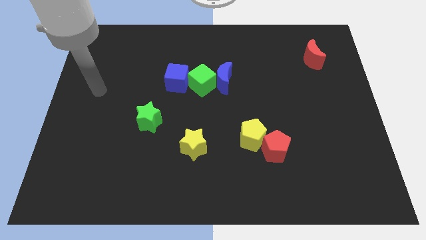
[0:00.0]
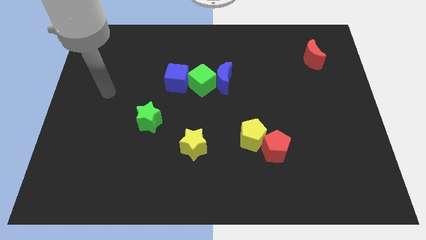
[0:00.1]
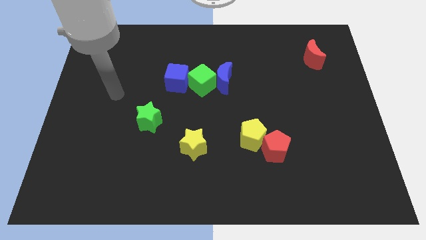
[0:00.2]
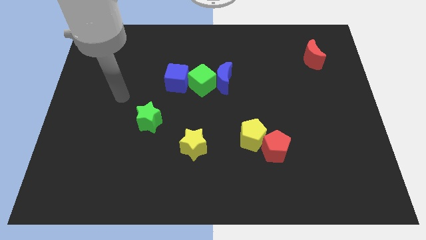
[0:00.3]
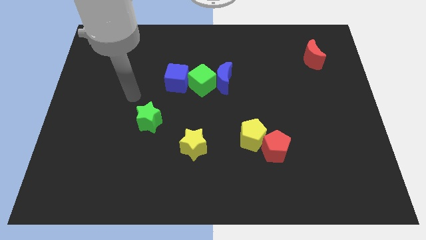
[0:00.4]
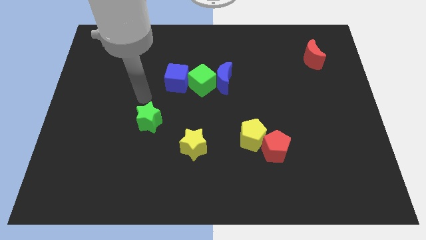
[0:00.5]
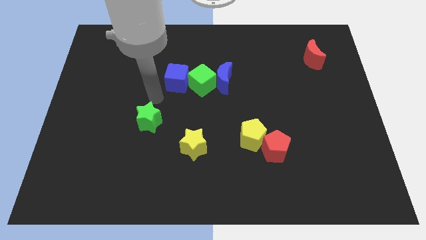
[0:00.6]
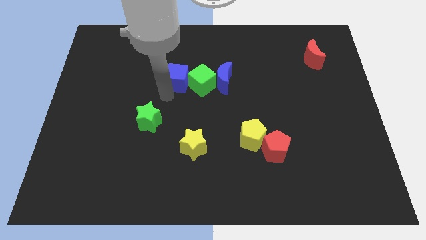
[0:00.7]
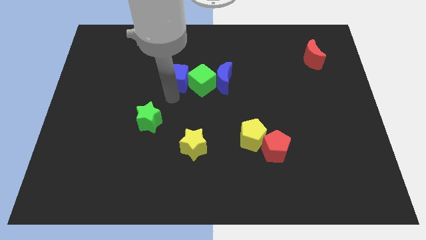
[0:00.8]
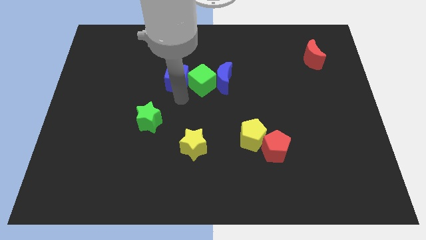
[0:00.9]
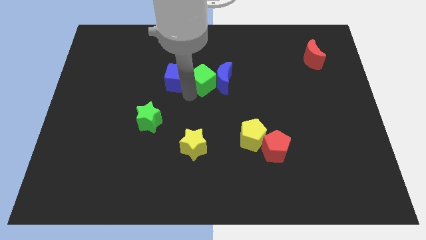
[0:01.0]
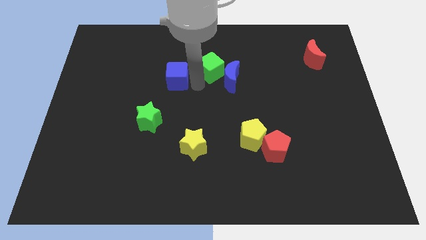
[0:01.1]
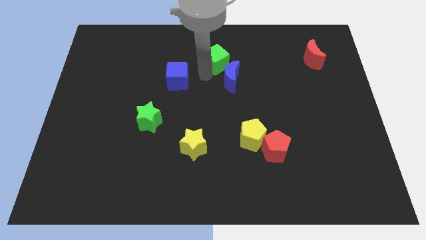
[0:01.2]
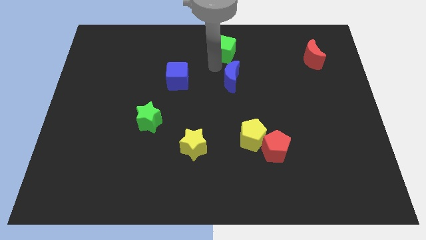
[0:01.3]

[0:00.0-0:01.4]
move the blue moon away from the green cube

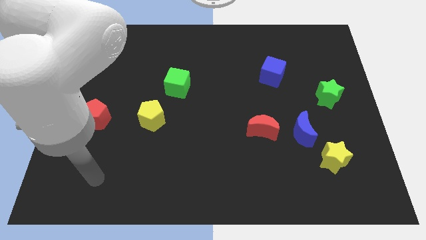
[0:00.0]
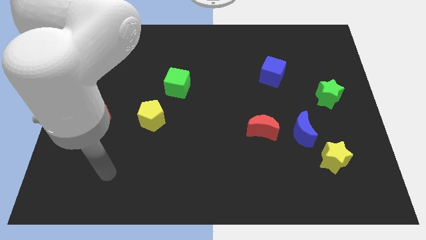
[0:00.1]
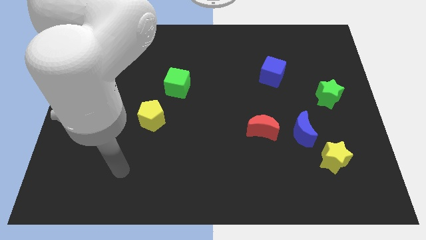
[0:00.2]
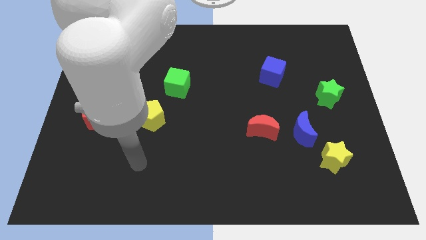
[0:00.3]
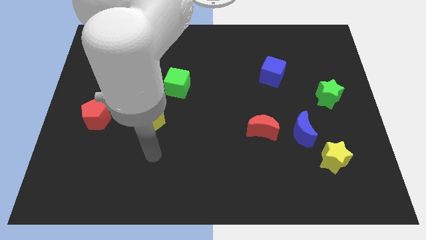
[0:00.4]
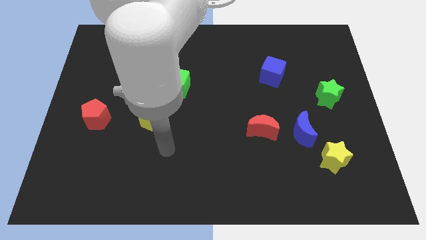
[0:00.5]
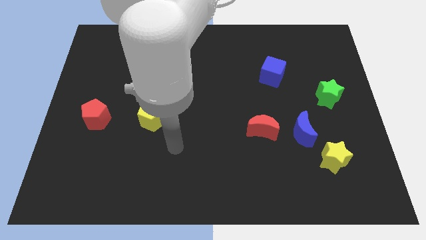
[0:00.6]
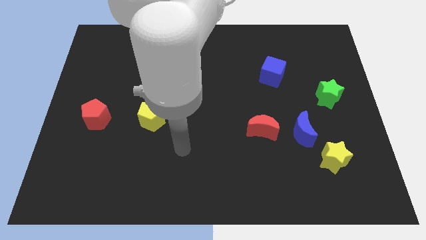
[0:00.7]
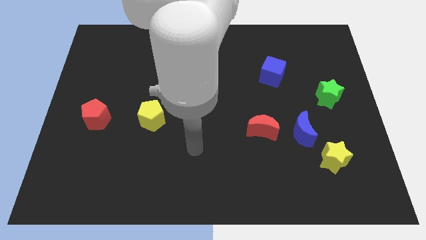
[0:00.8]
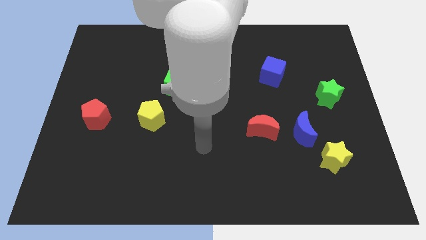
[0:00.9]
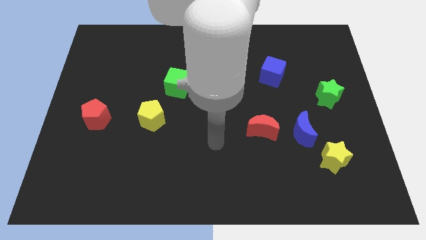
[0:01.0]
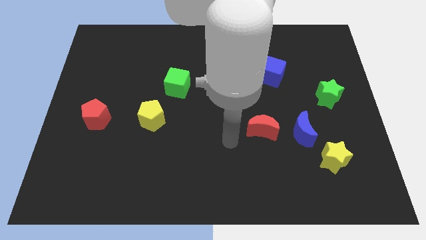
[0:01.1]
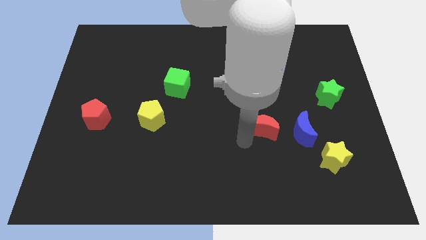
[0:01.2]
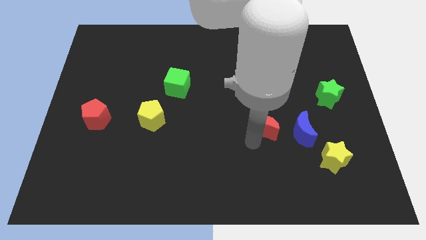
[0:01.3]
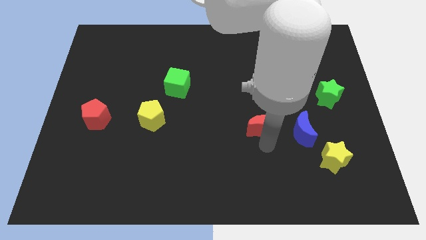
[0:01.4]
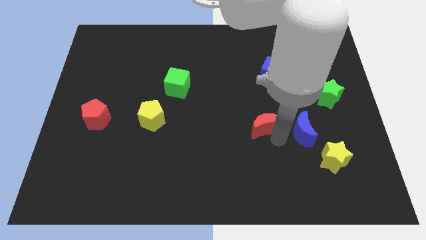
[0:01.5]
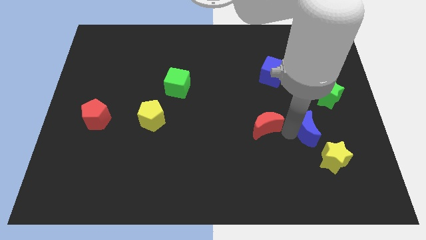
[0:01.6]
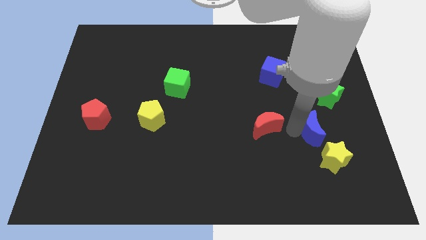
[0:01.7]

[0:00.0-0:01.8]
pull the red moon apart from the blue moon

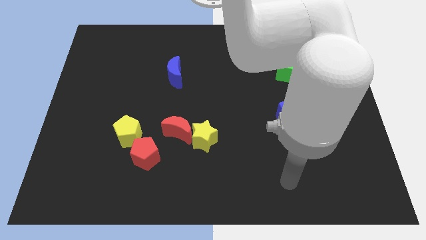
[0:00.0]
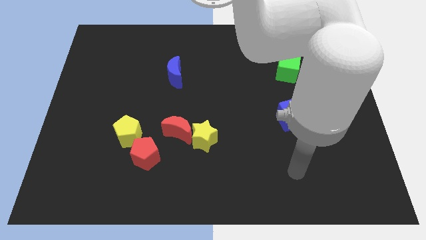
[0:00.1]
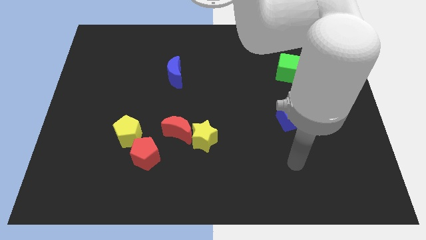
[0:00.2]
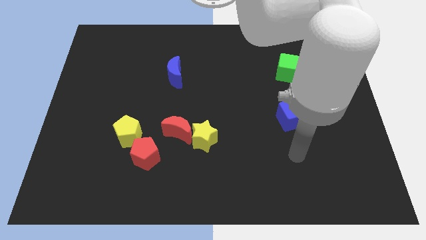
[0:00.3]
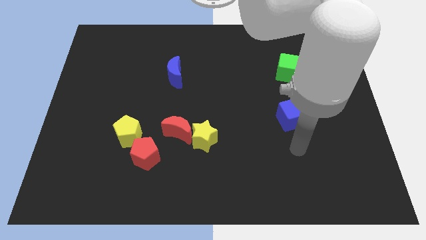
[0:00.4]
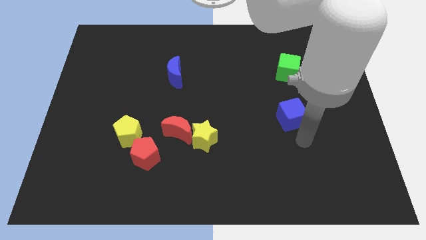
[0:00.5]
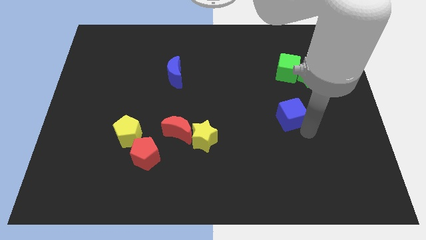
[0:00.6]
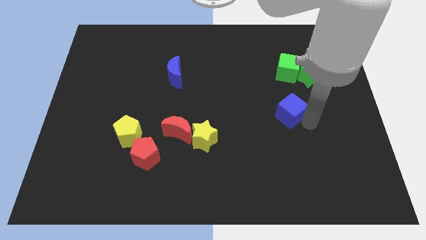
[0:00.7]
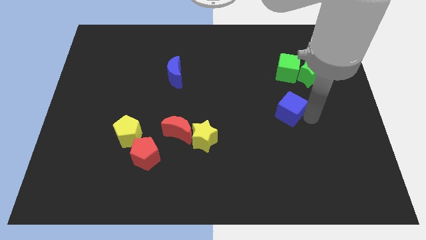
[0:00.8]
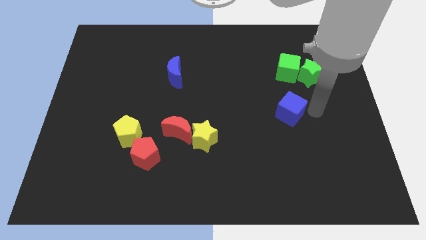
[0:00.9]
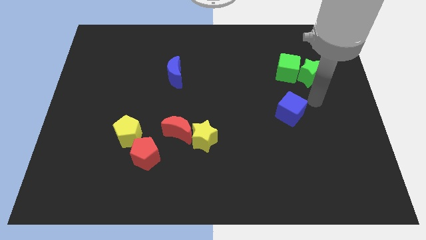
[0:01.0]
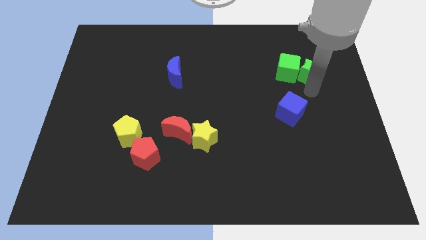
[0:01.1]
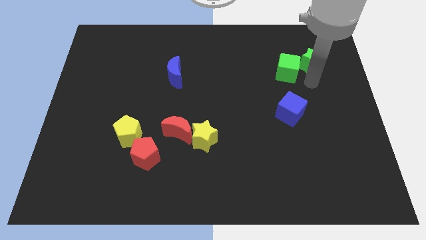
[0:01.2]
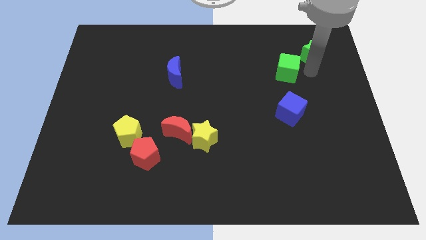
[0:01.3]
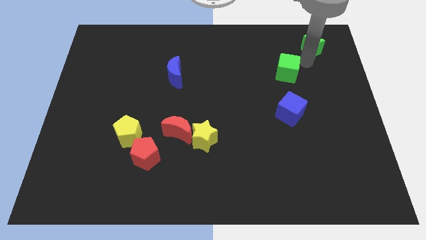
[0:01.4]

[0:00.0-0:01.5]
separate the green cube from the green star

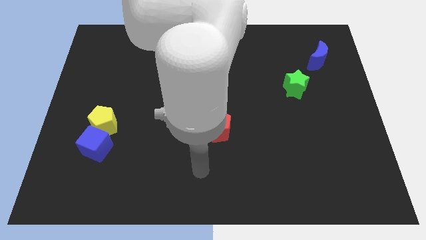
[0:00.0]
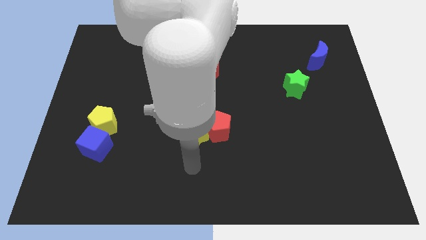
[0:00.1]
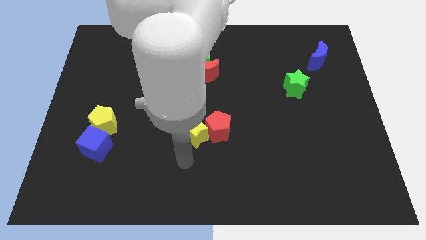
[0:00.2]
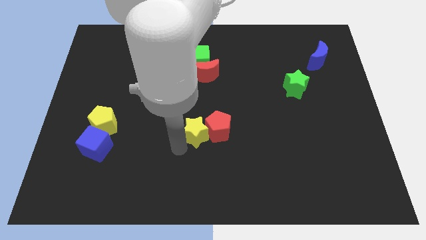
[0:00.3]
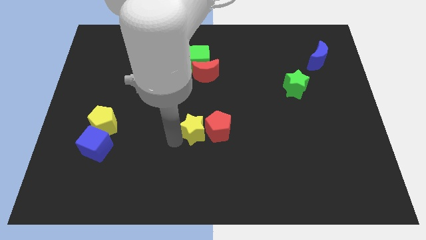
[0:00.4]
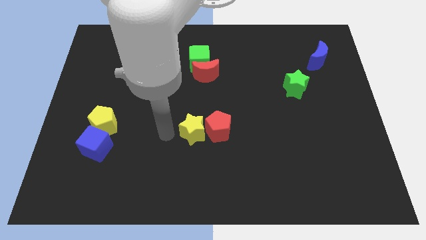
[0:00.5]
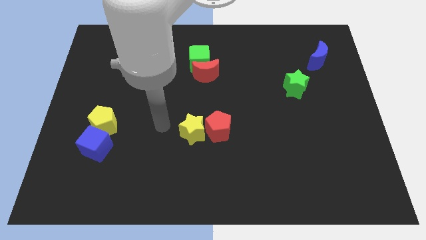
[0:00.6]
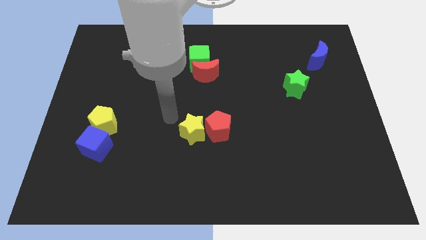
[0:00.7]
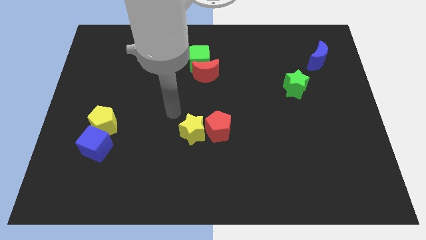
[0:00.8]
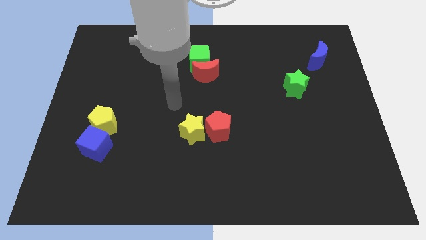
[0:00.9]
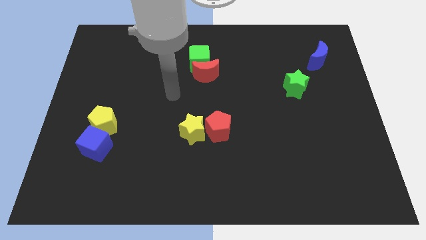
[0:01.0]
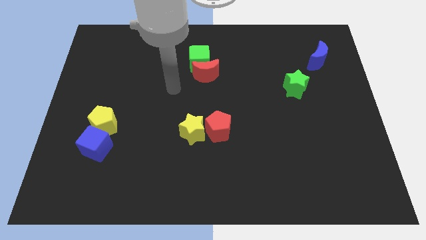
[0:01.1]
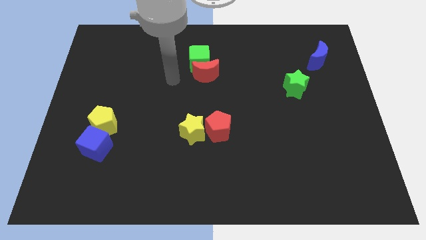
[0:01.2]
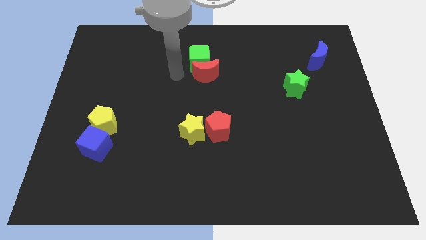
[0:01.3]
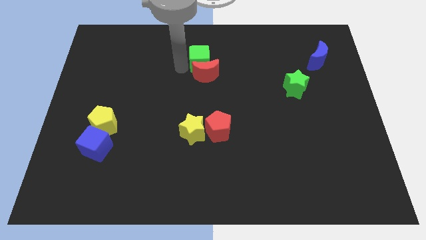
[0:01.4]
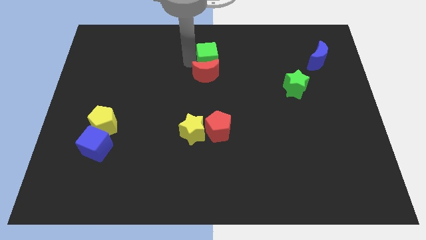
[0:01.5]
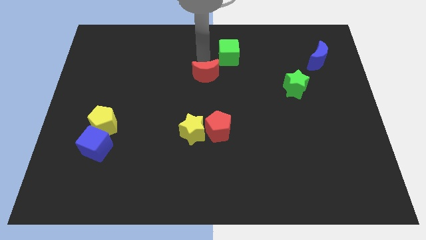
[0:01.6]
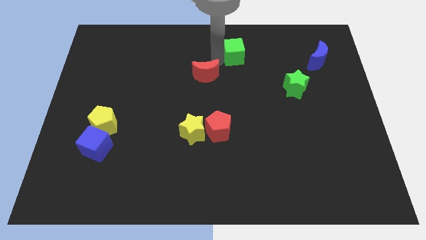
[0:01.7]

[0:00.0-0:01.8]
pull the red moon apart from the green cube

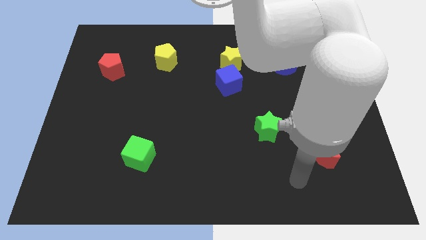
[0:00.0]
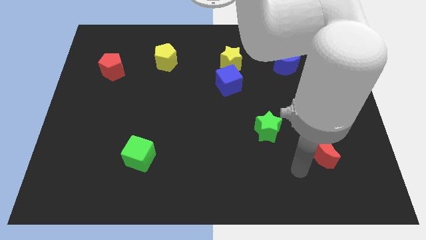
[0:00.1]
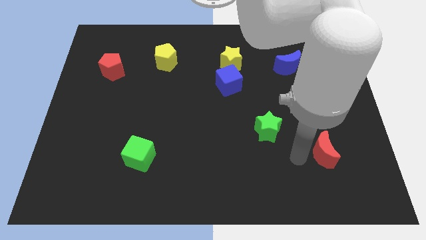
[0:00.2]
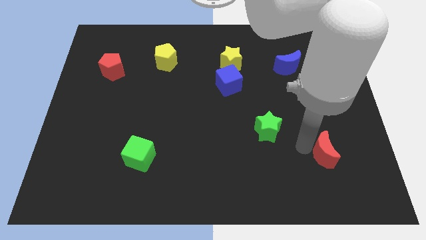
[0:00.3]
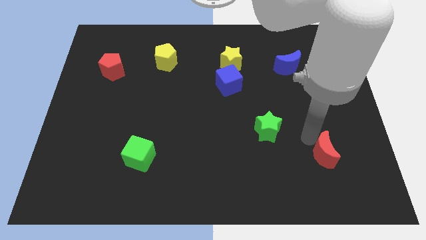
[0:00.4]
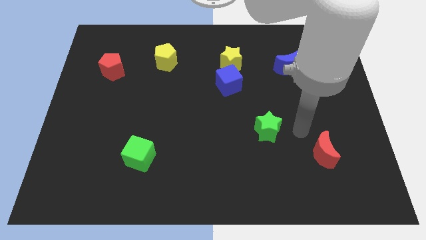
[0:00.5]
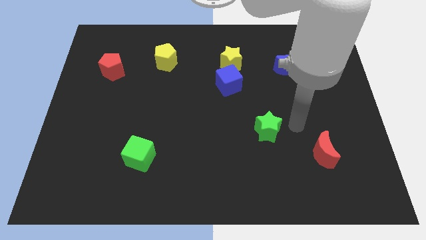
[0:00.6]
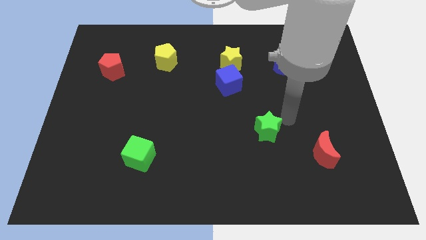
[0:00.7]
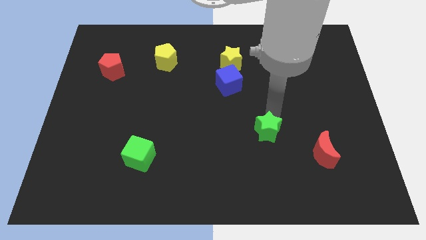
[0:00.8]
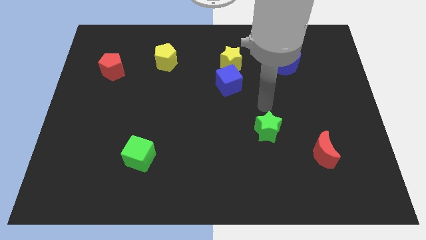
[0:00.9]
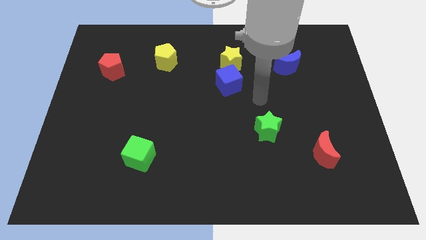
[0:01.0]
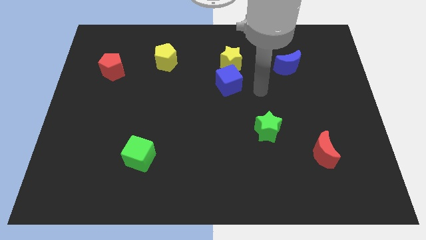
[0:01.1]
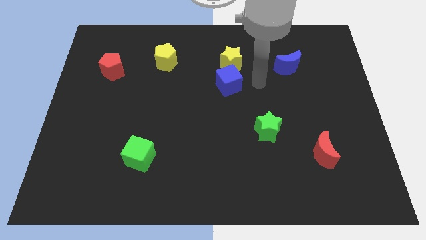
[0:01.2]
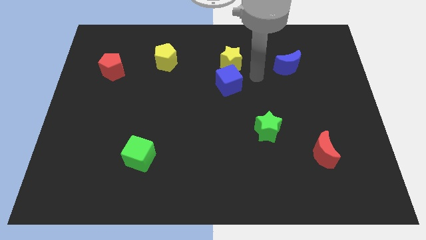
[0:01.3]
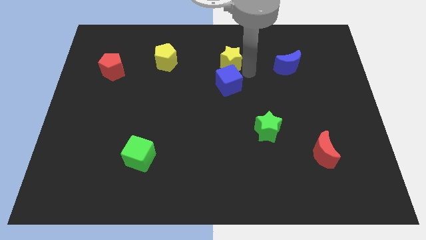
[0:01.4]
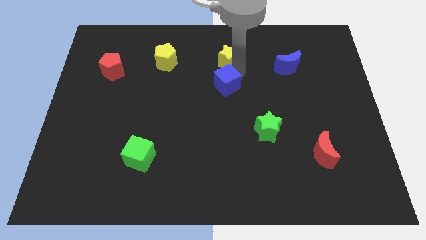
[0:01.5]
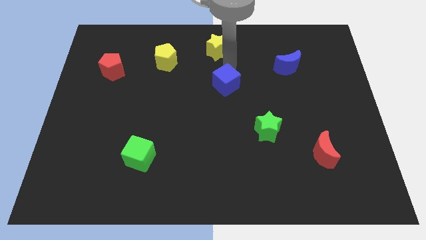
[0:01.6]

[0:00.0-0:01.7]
separate the blue cube from the yellow star

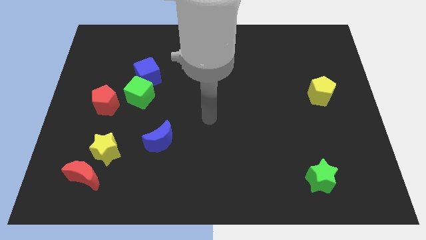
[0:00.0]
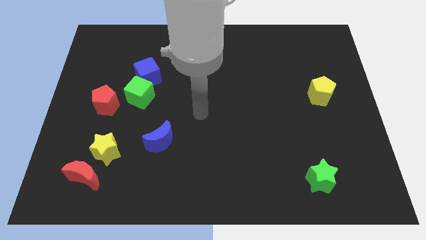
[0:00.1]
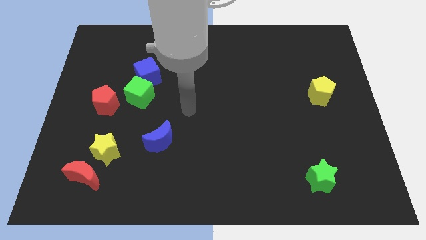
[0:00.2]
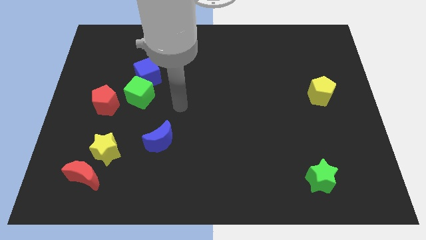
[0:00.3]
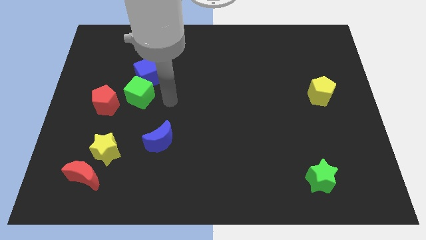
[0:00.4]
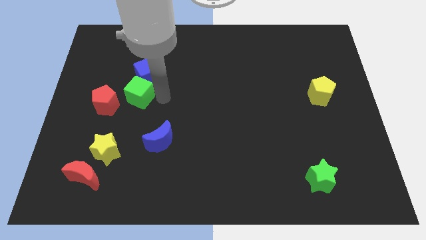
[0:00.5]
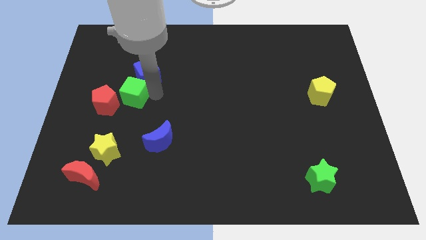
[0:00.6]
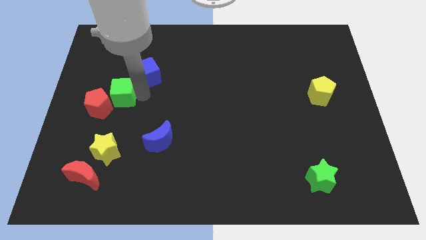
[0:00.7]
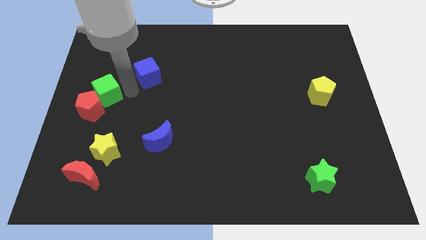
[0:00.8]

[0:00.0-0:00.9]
pull the blue cube apart from the green cube

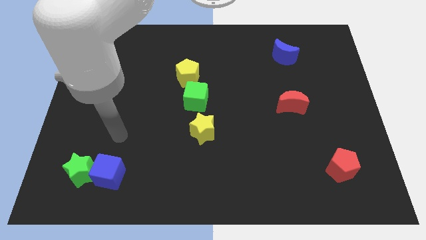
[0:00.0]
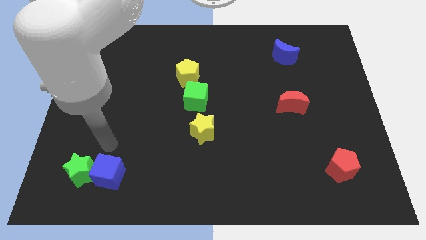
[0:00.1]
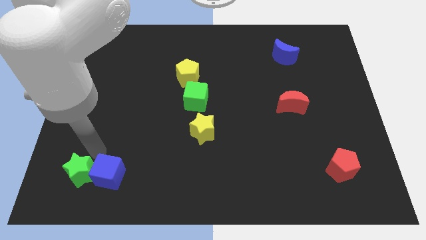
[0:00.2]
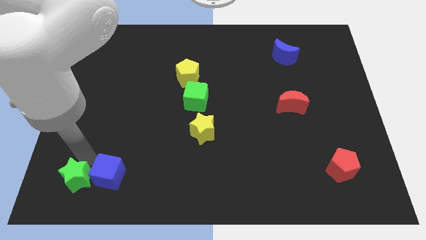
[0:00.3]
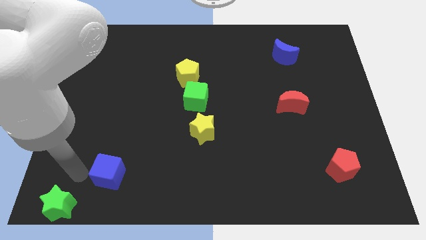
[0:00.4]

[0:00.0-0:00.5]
pull the blue cube apart from the green star
